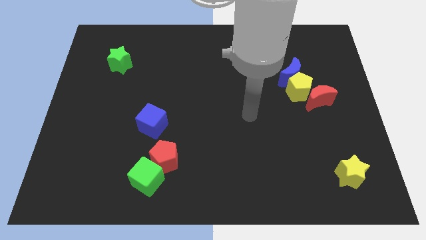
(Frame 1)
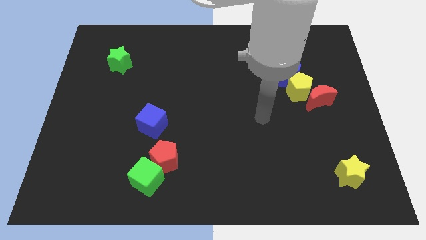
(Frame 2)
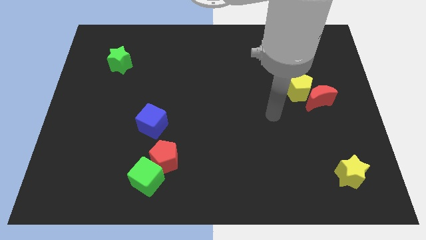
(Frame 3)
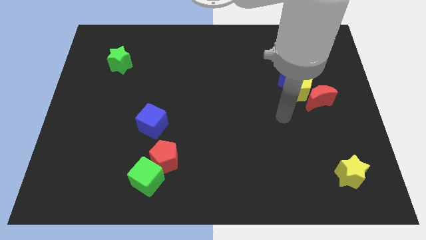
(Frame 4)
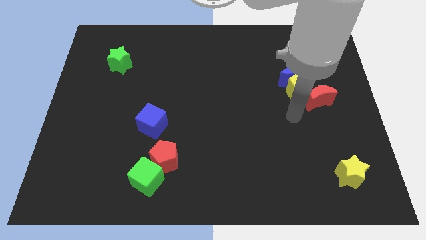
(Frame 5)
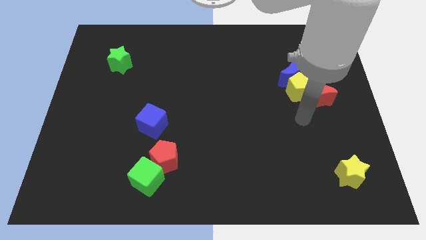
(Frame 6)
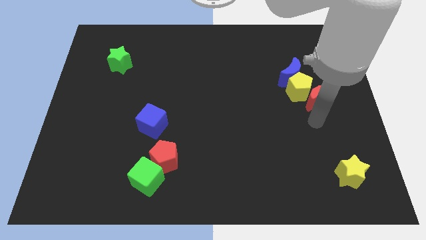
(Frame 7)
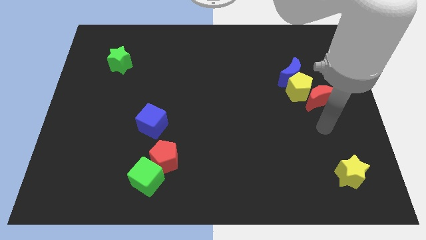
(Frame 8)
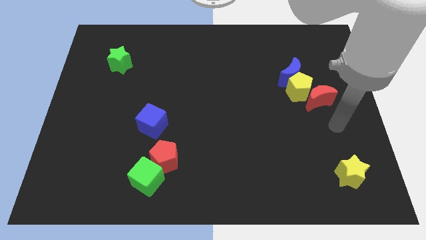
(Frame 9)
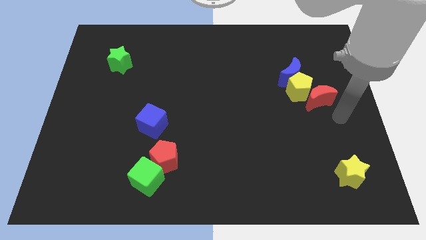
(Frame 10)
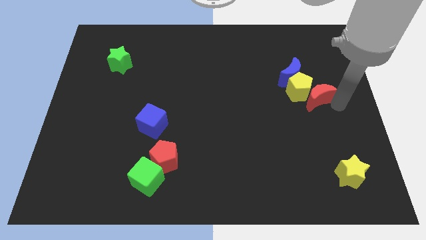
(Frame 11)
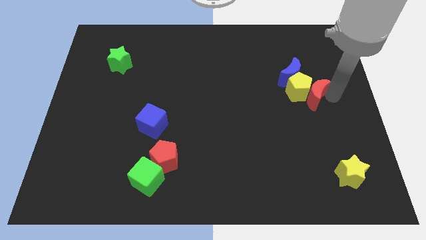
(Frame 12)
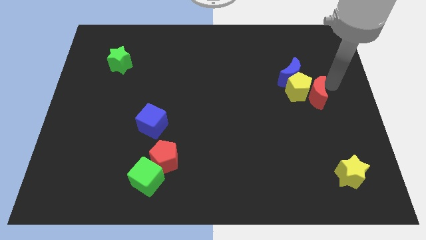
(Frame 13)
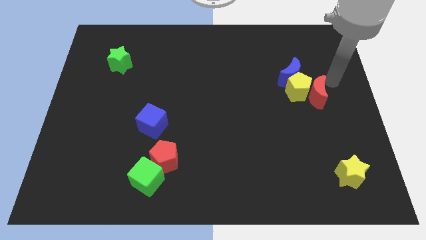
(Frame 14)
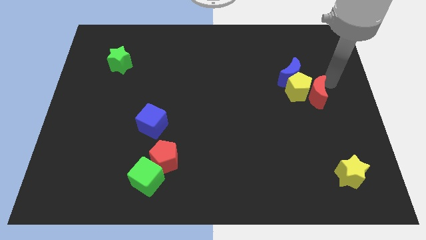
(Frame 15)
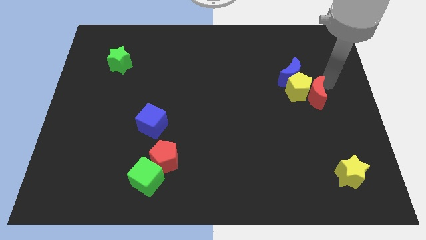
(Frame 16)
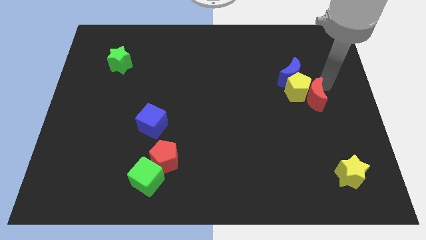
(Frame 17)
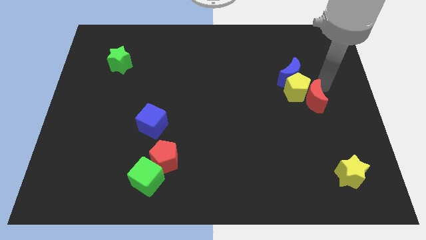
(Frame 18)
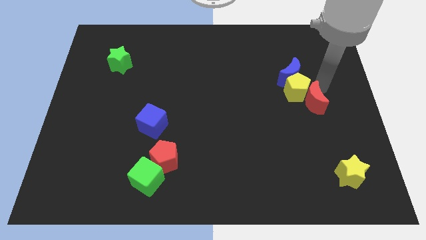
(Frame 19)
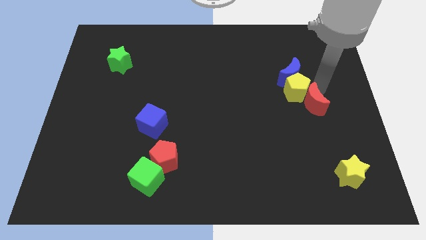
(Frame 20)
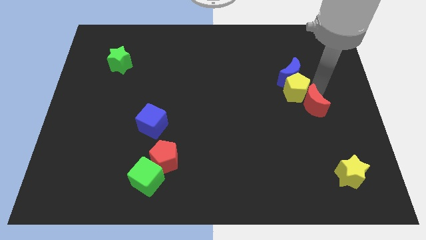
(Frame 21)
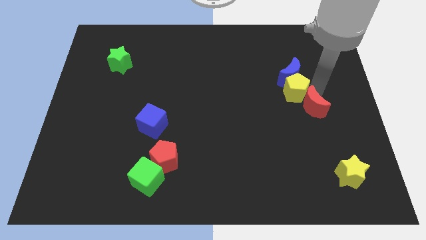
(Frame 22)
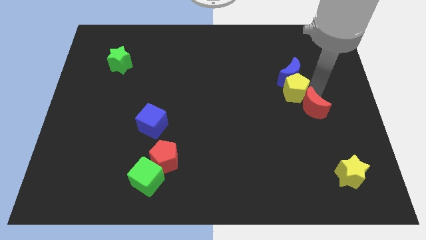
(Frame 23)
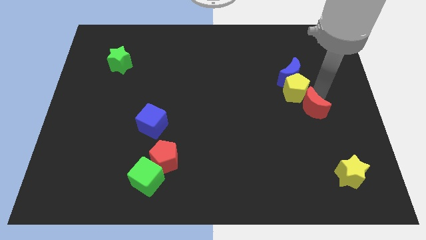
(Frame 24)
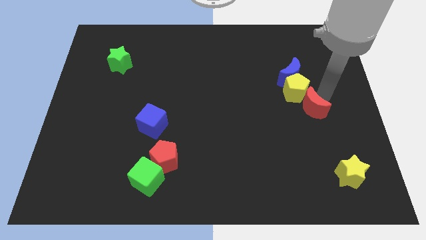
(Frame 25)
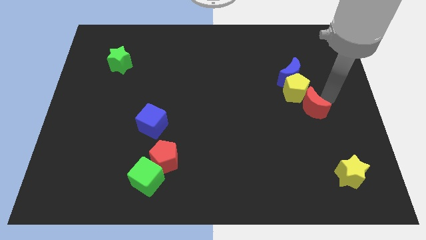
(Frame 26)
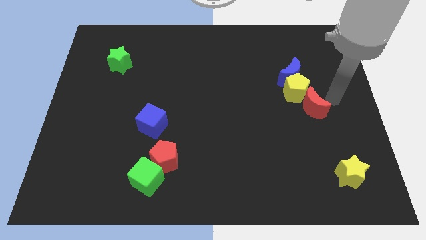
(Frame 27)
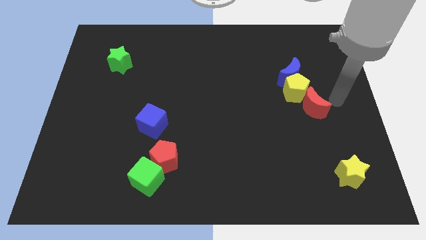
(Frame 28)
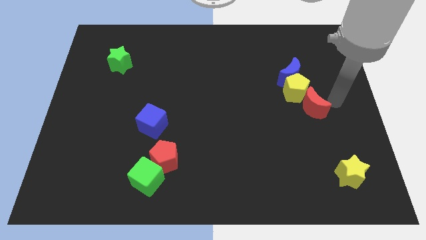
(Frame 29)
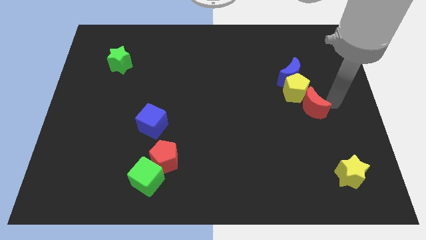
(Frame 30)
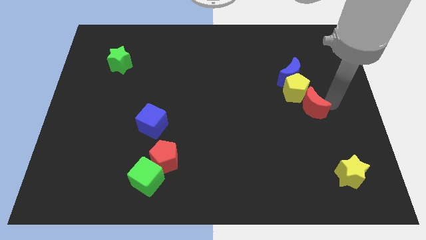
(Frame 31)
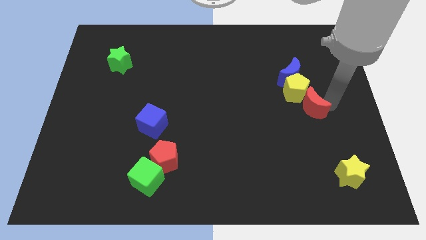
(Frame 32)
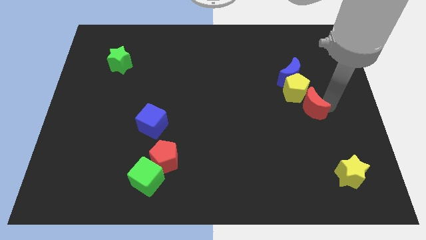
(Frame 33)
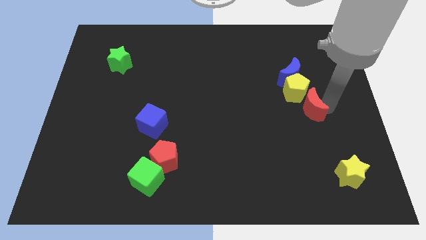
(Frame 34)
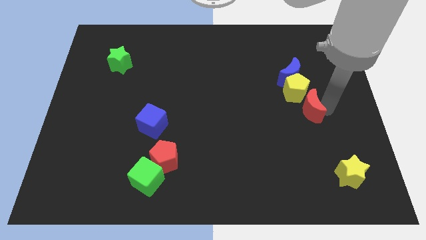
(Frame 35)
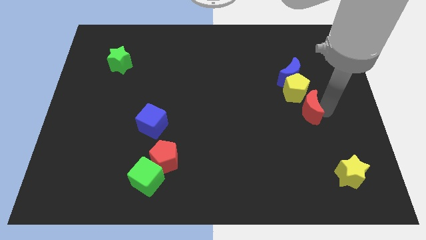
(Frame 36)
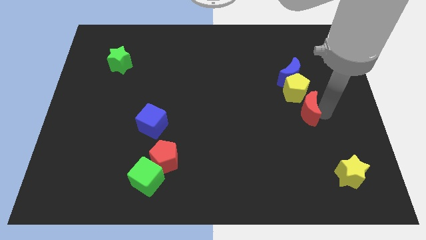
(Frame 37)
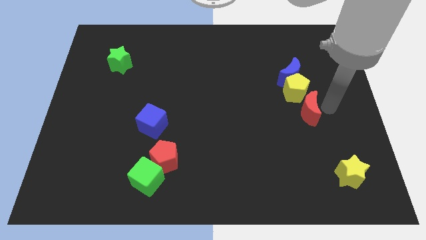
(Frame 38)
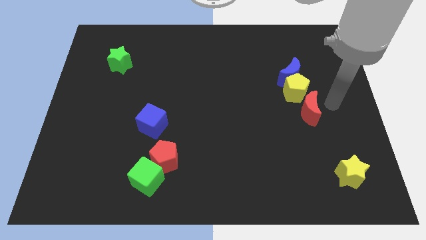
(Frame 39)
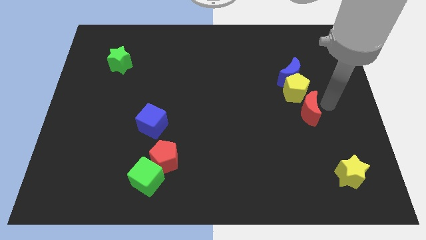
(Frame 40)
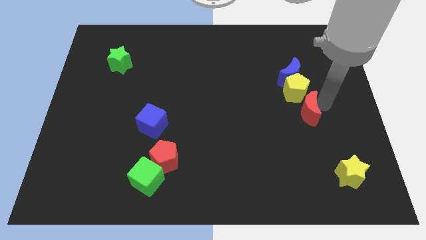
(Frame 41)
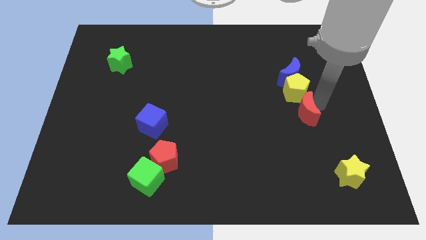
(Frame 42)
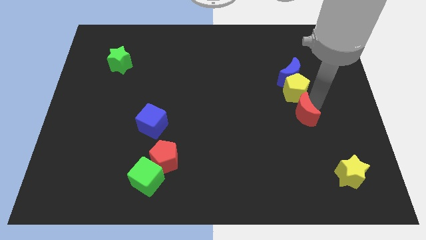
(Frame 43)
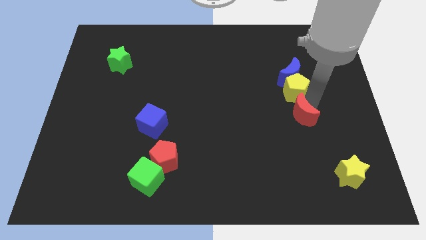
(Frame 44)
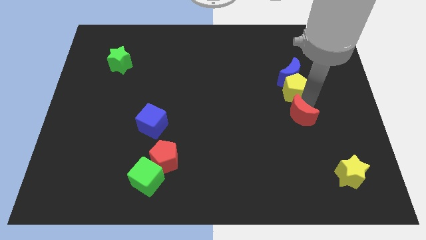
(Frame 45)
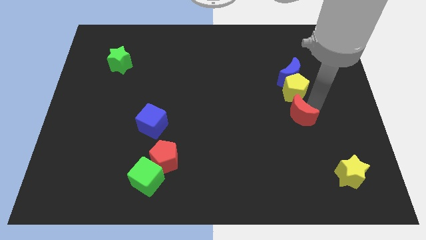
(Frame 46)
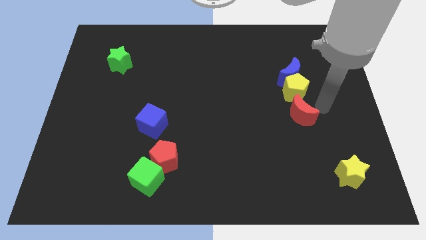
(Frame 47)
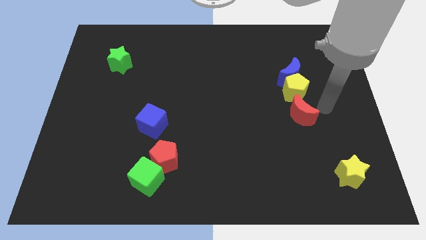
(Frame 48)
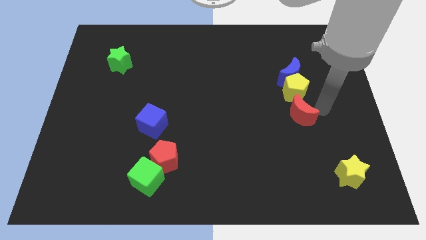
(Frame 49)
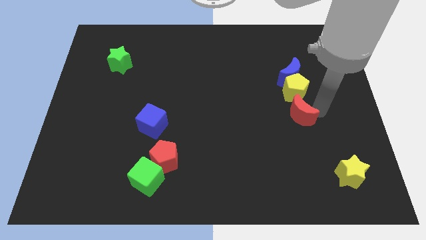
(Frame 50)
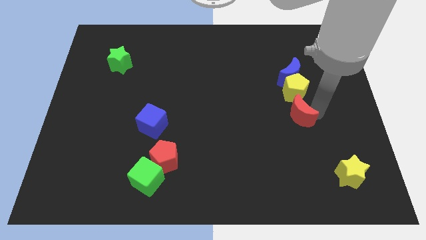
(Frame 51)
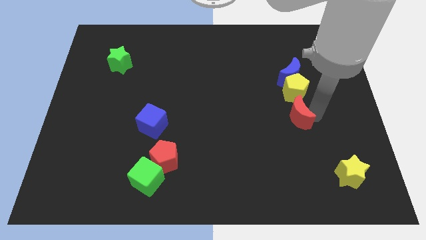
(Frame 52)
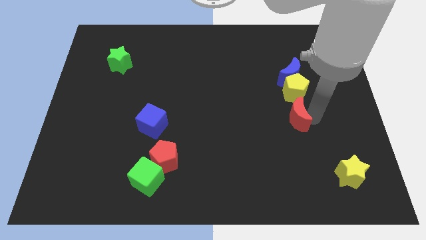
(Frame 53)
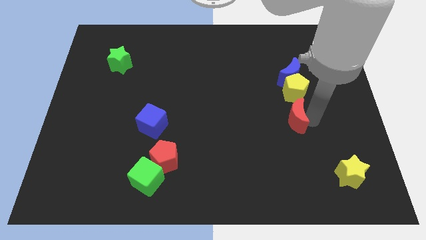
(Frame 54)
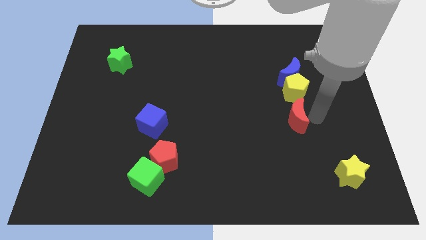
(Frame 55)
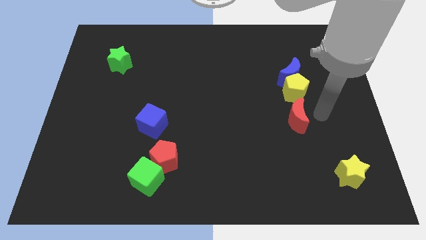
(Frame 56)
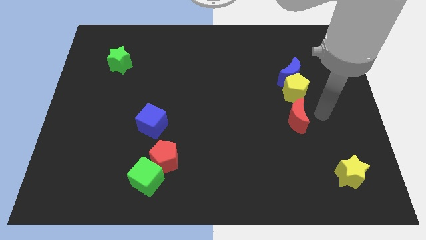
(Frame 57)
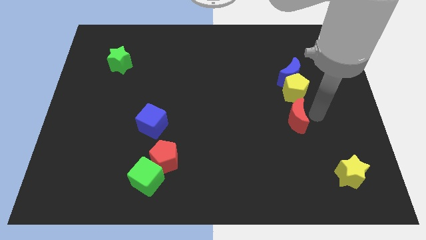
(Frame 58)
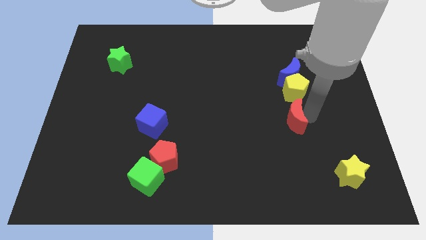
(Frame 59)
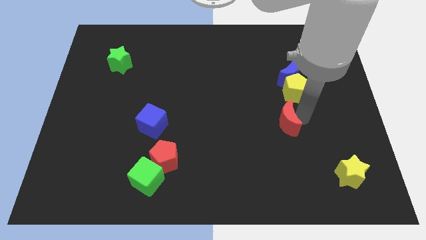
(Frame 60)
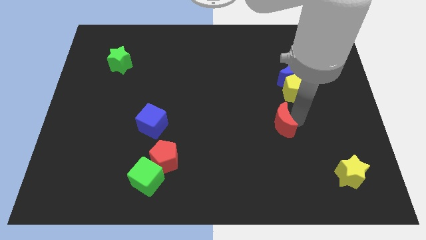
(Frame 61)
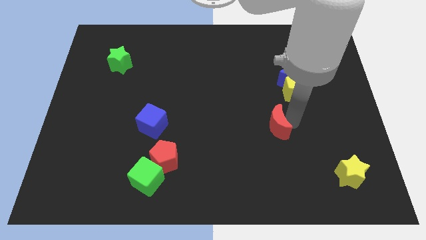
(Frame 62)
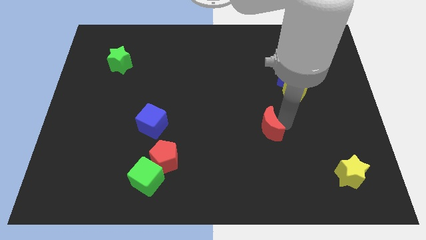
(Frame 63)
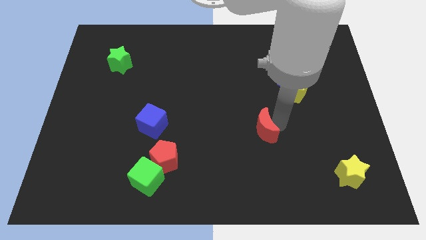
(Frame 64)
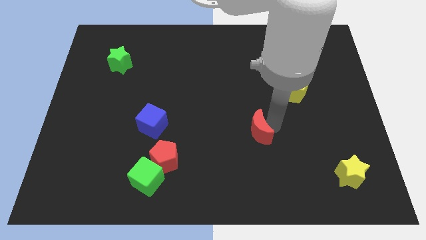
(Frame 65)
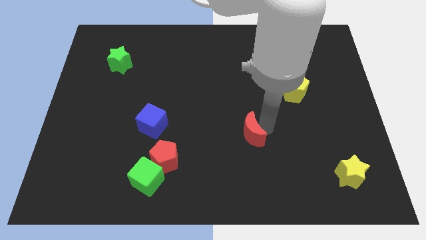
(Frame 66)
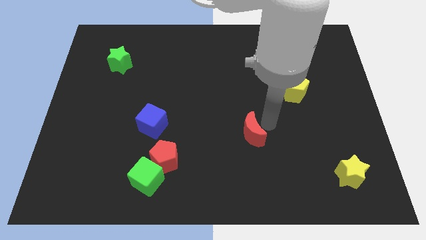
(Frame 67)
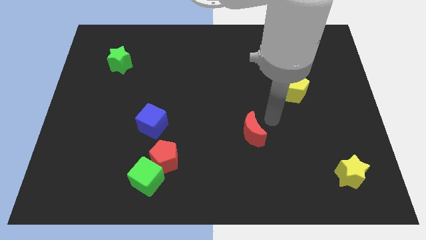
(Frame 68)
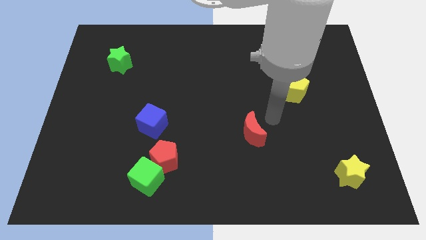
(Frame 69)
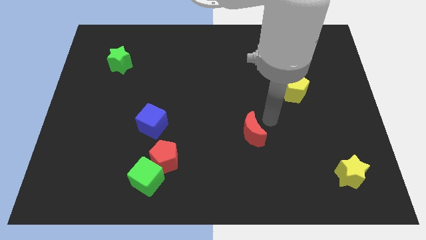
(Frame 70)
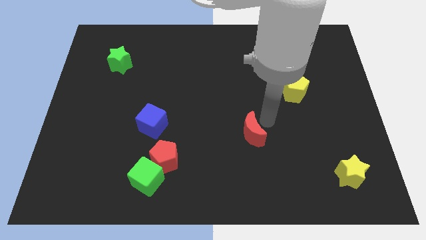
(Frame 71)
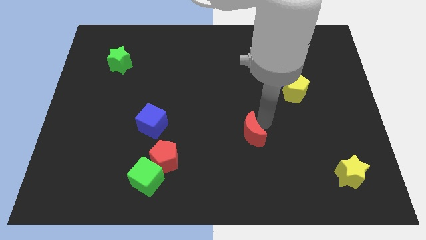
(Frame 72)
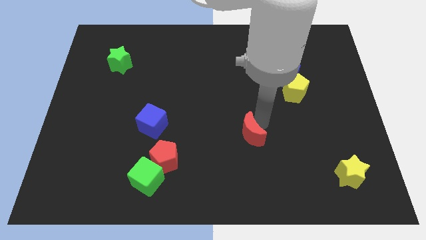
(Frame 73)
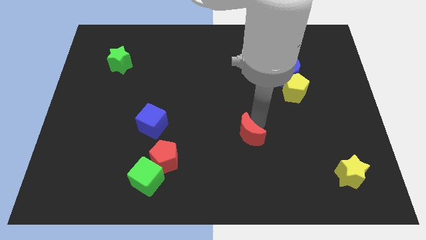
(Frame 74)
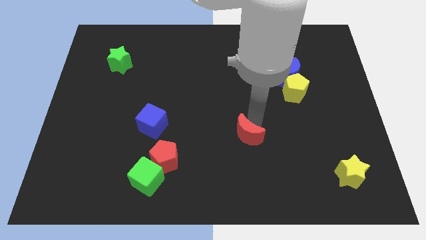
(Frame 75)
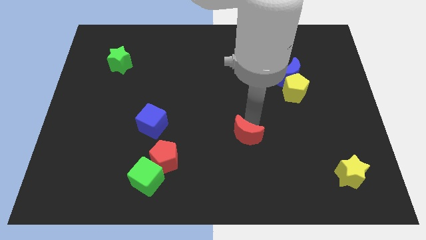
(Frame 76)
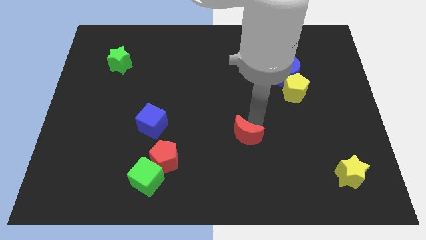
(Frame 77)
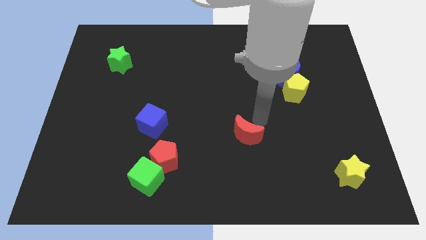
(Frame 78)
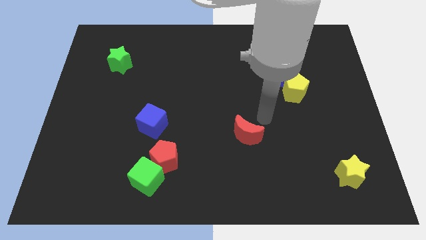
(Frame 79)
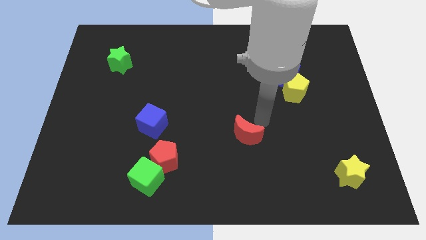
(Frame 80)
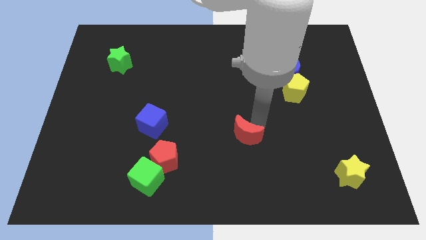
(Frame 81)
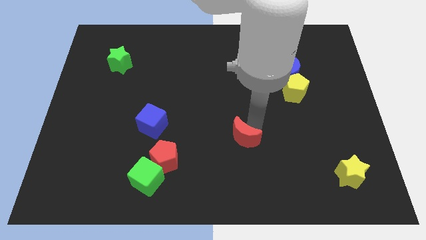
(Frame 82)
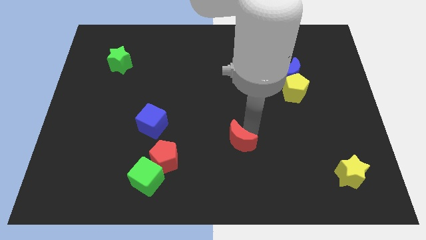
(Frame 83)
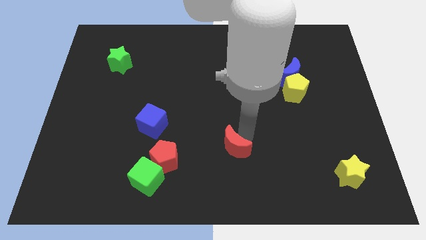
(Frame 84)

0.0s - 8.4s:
slide the red moon just right of the red pentagon
